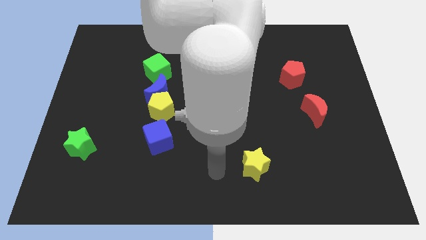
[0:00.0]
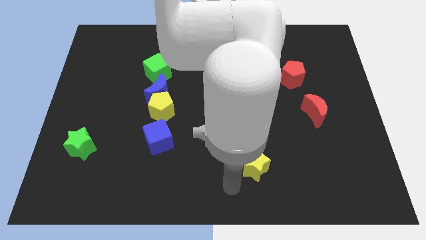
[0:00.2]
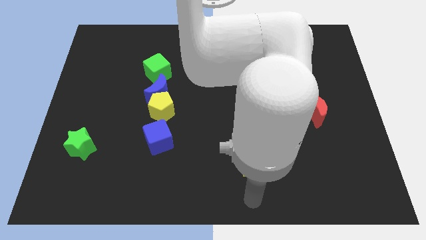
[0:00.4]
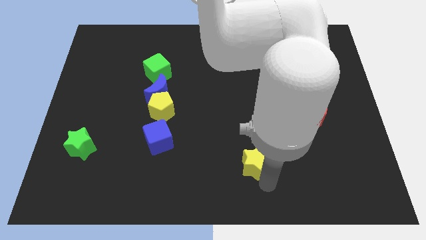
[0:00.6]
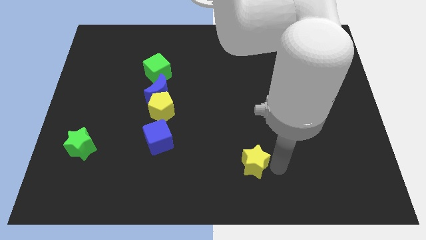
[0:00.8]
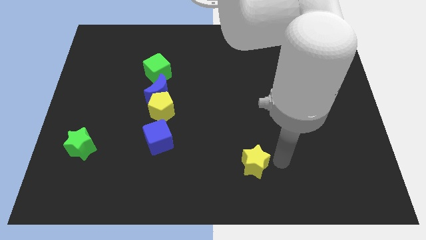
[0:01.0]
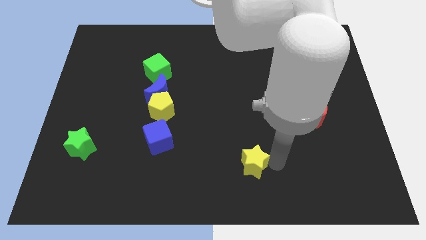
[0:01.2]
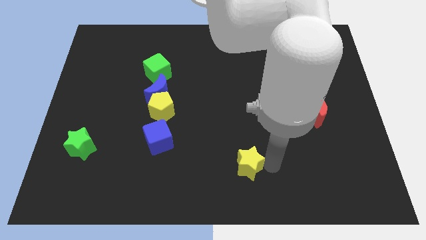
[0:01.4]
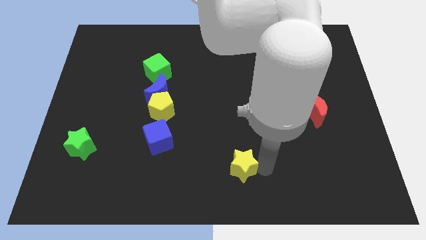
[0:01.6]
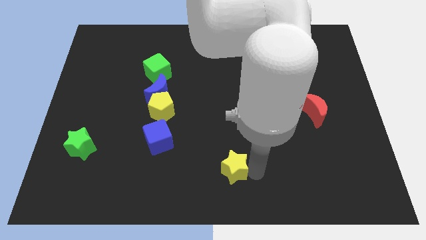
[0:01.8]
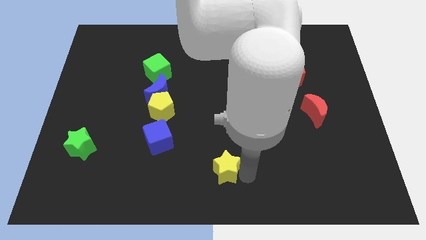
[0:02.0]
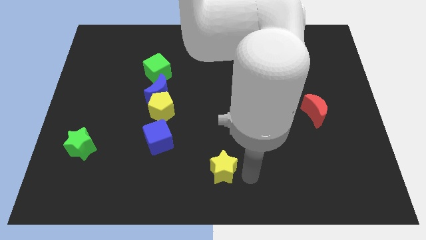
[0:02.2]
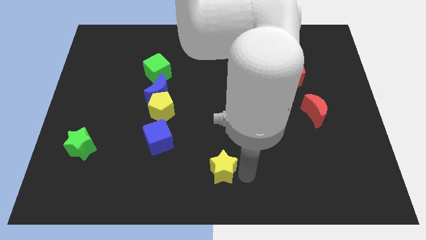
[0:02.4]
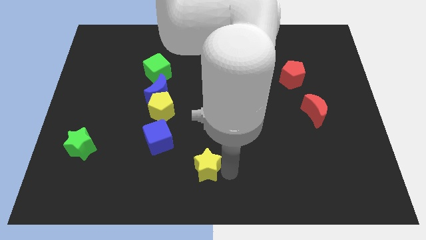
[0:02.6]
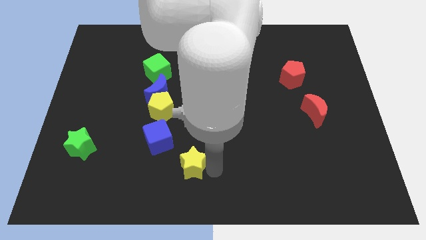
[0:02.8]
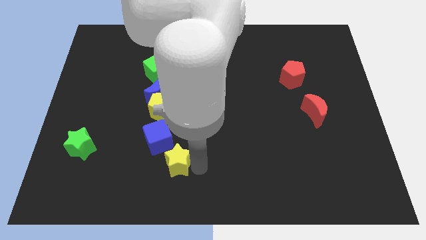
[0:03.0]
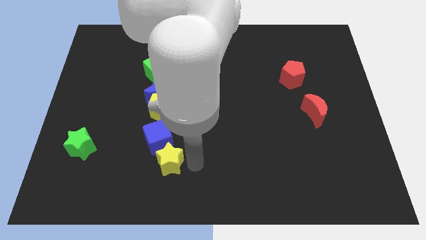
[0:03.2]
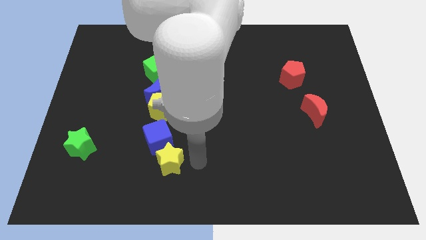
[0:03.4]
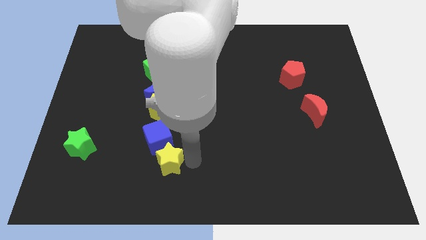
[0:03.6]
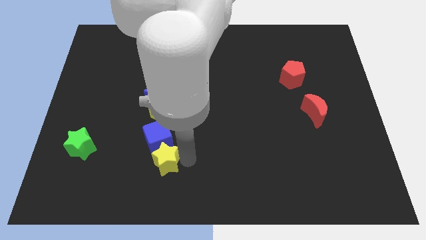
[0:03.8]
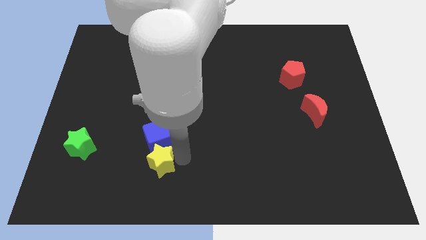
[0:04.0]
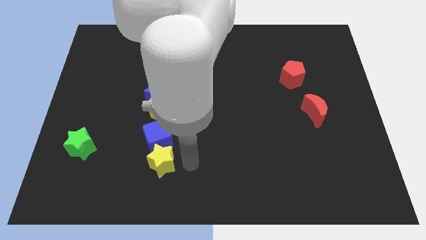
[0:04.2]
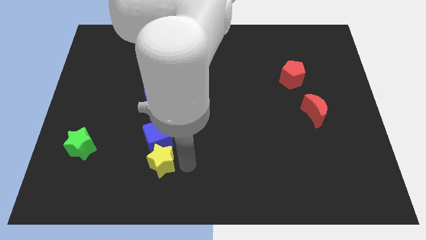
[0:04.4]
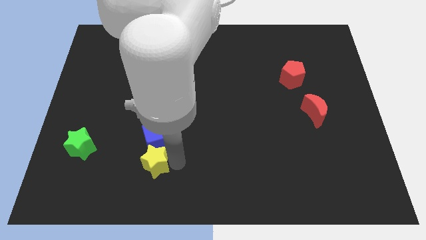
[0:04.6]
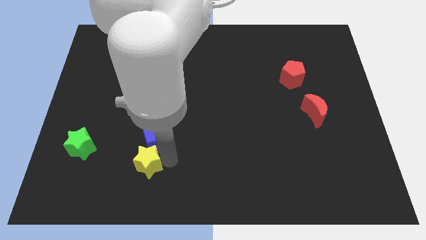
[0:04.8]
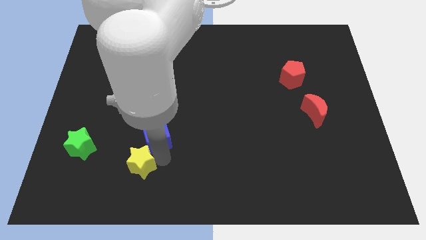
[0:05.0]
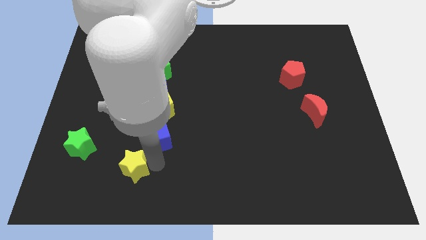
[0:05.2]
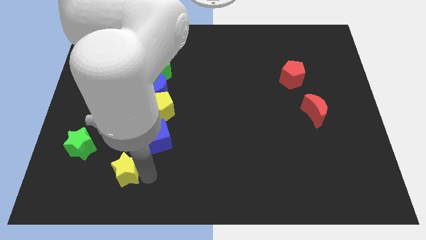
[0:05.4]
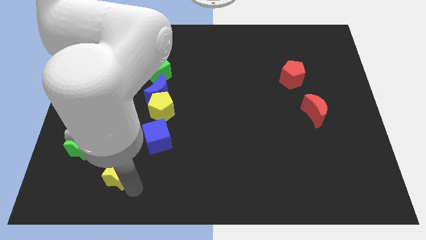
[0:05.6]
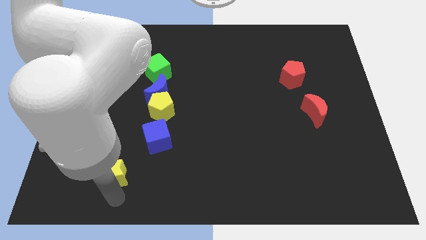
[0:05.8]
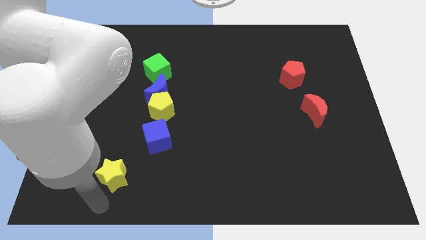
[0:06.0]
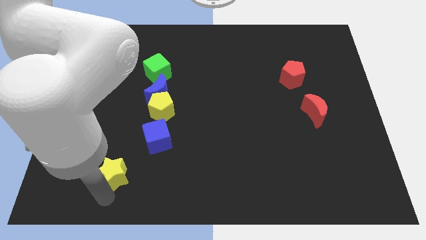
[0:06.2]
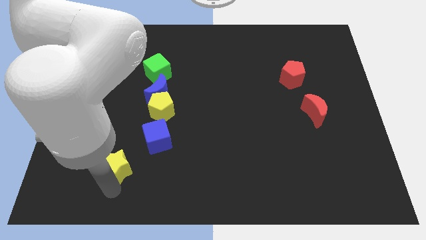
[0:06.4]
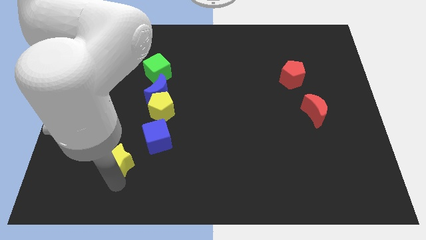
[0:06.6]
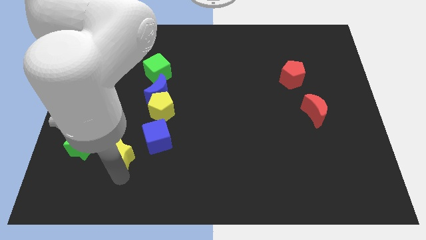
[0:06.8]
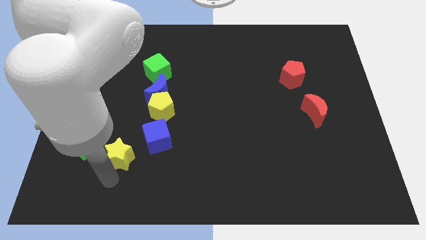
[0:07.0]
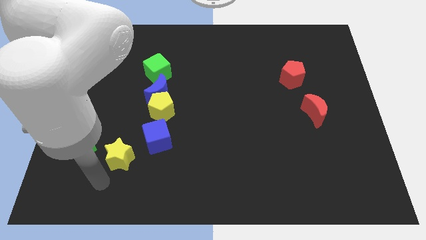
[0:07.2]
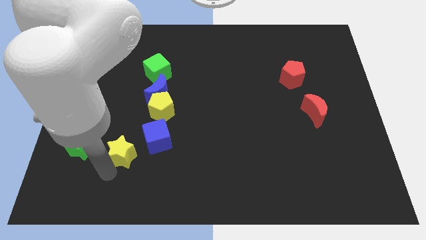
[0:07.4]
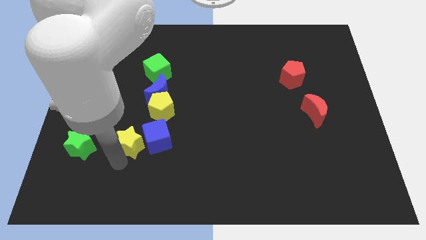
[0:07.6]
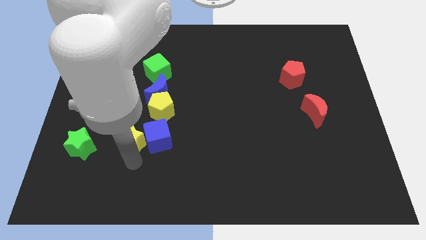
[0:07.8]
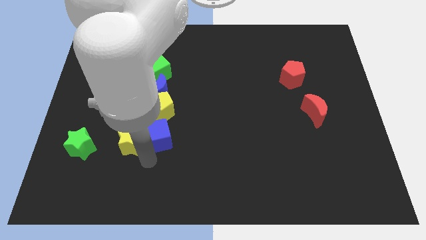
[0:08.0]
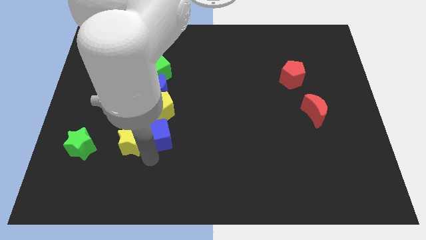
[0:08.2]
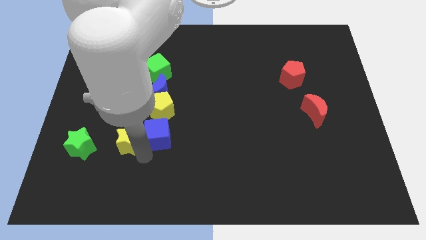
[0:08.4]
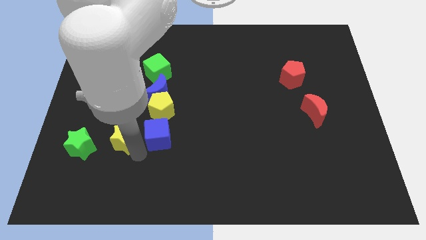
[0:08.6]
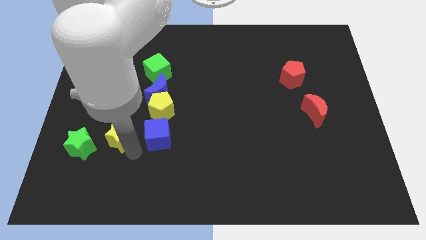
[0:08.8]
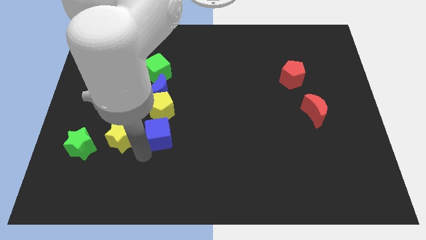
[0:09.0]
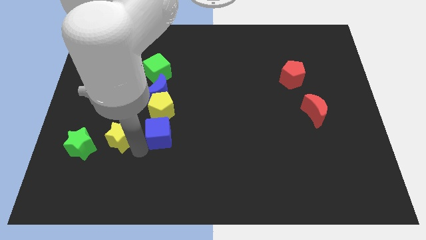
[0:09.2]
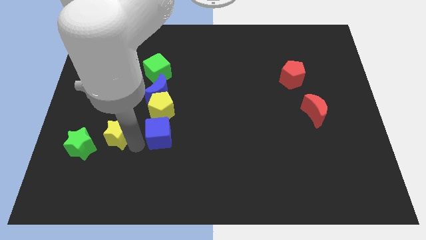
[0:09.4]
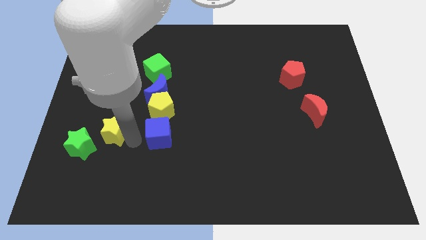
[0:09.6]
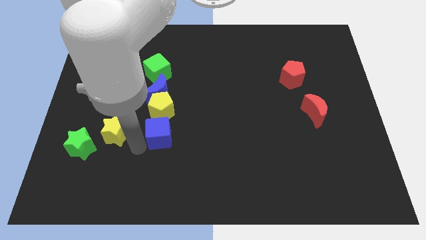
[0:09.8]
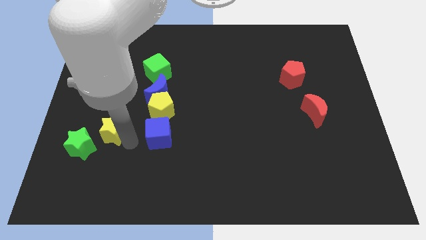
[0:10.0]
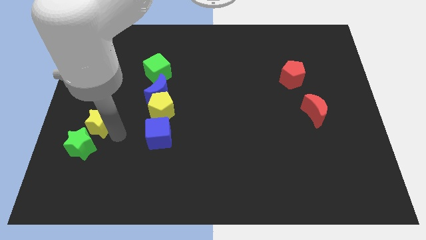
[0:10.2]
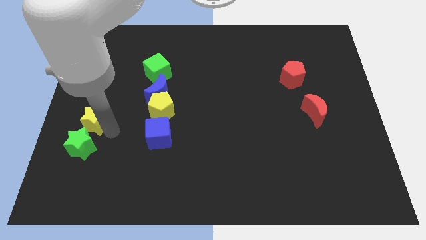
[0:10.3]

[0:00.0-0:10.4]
push the yellow star to the left side of the board

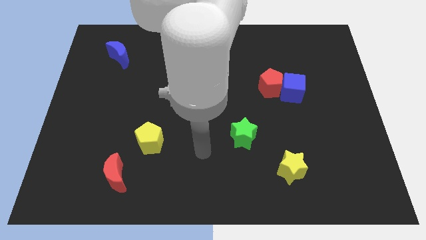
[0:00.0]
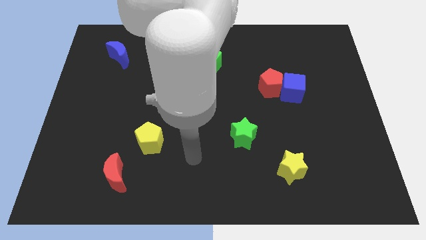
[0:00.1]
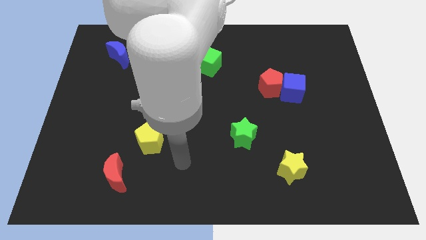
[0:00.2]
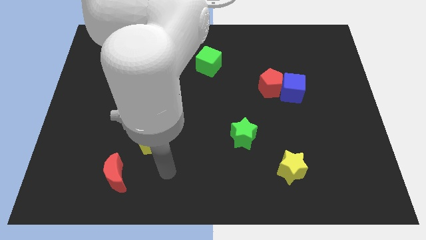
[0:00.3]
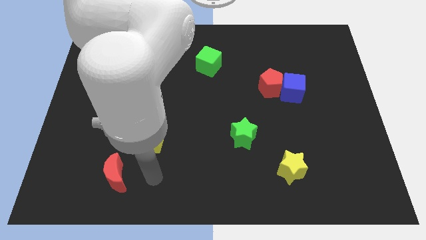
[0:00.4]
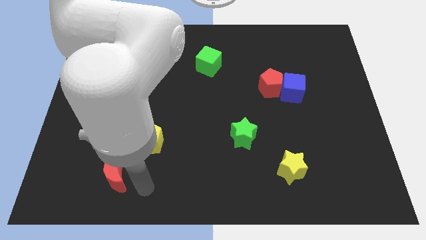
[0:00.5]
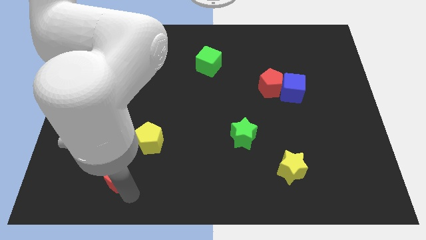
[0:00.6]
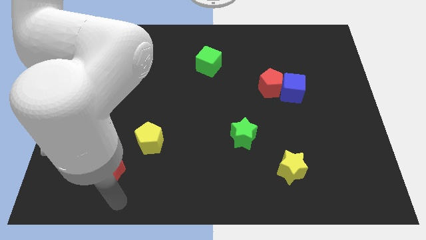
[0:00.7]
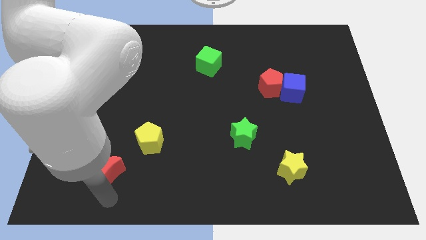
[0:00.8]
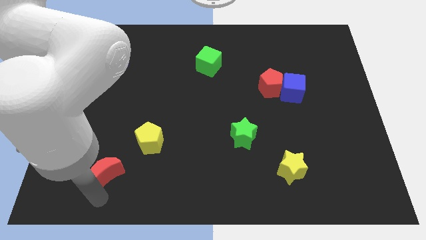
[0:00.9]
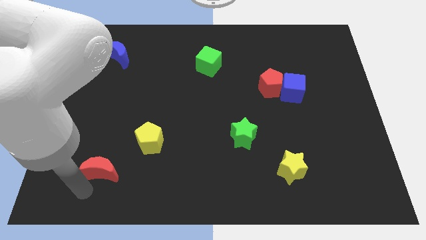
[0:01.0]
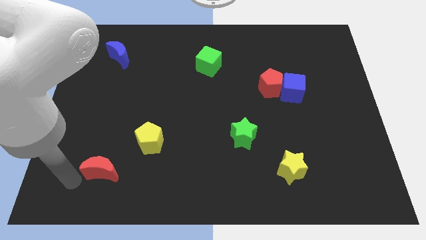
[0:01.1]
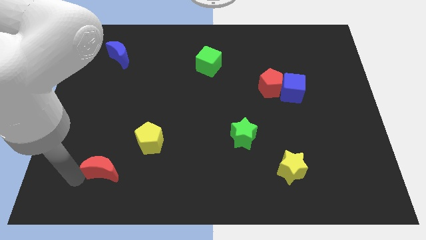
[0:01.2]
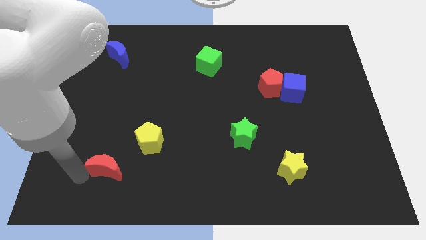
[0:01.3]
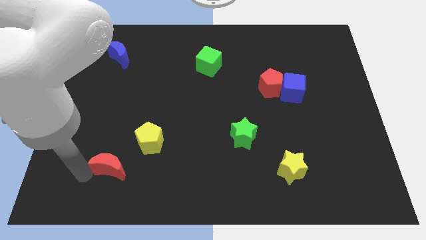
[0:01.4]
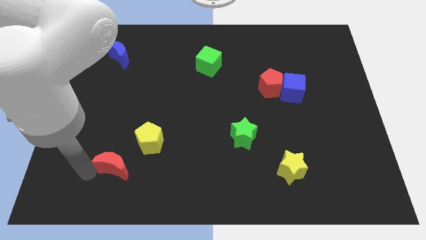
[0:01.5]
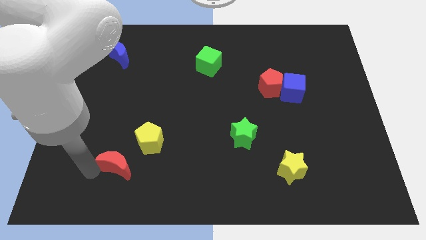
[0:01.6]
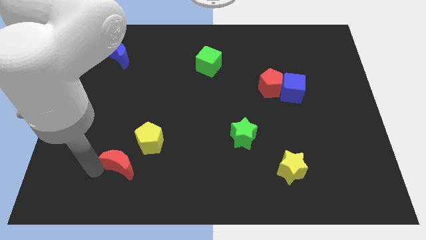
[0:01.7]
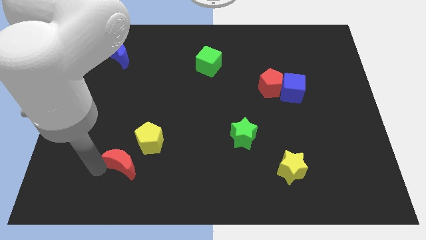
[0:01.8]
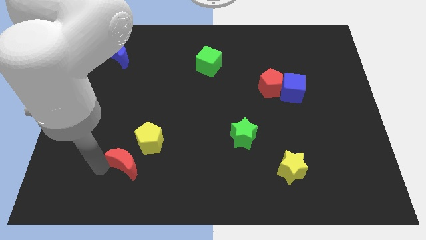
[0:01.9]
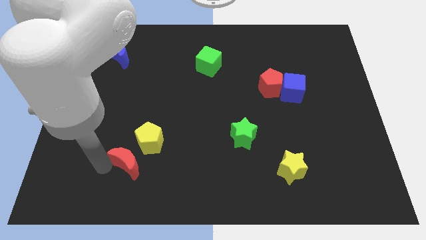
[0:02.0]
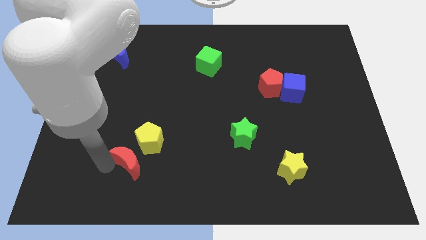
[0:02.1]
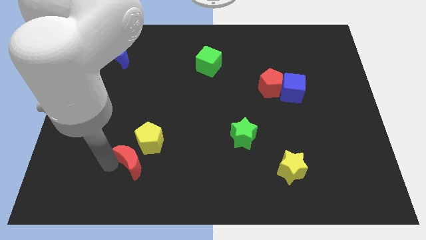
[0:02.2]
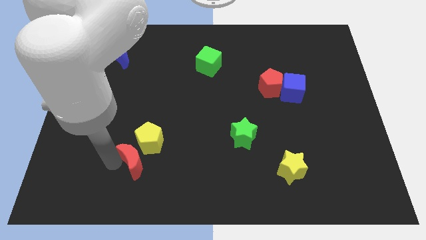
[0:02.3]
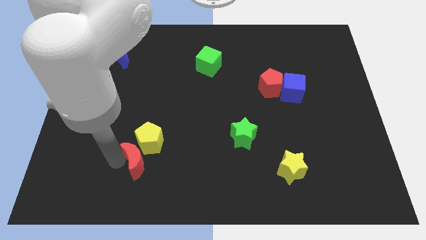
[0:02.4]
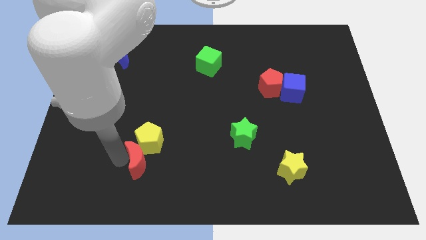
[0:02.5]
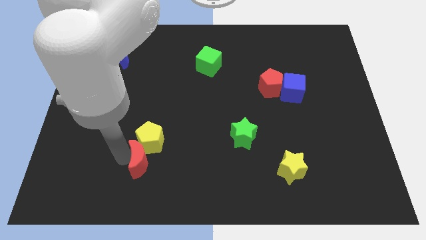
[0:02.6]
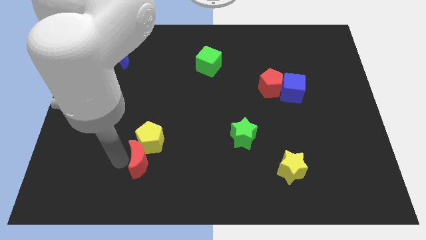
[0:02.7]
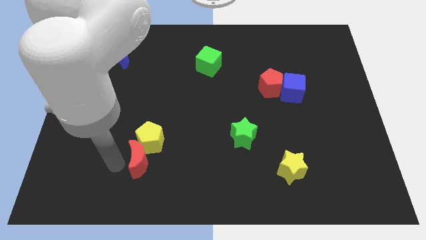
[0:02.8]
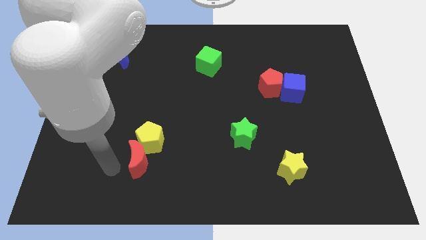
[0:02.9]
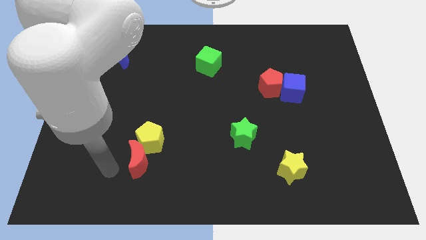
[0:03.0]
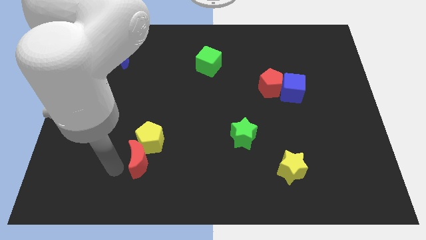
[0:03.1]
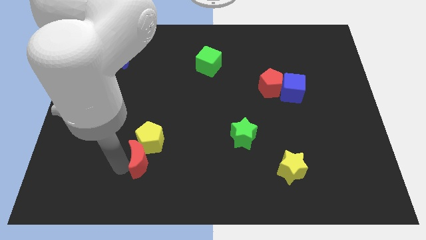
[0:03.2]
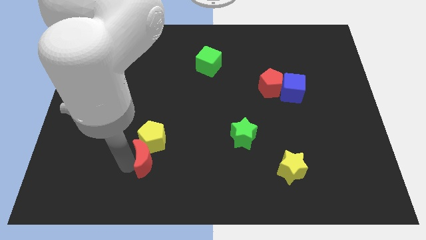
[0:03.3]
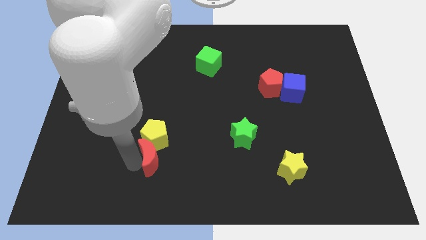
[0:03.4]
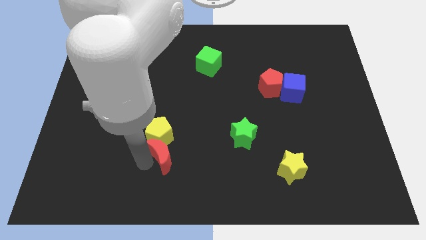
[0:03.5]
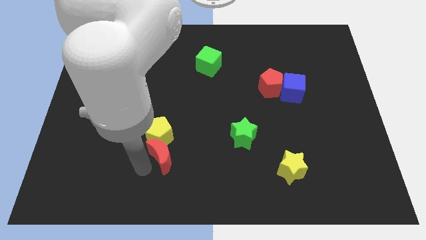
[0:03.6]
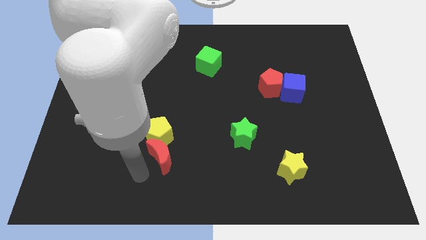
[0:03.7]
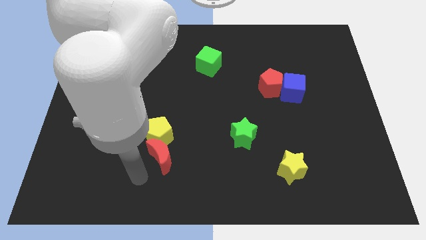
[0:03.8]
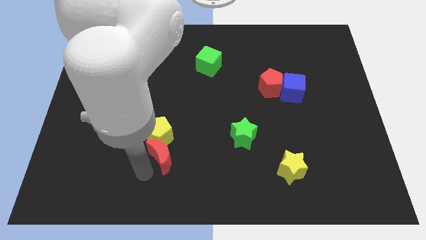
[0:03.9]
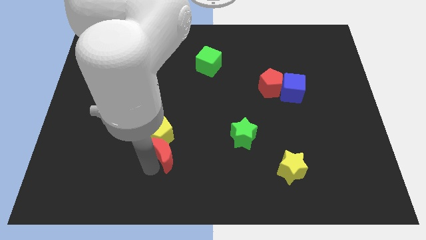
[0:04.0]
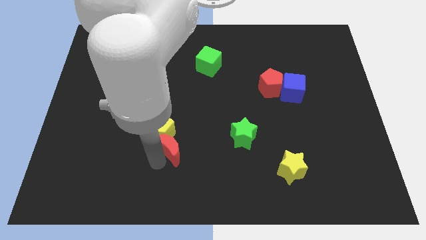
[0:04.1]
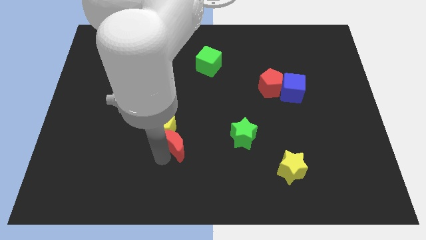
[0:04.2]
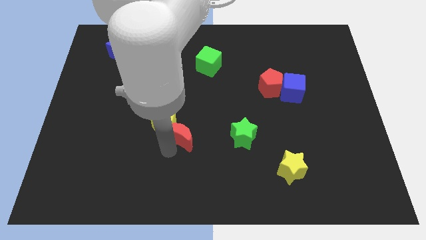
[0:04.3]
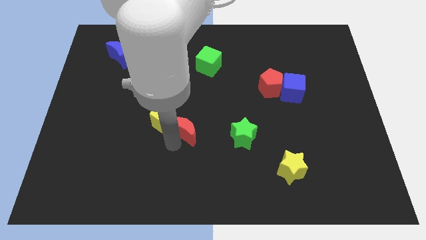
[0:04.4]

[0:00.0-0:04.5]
slide the red moon to the center of the board
